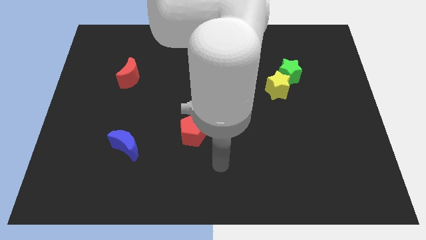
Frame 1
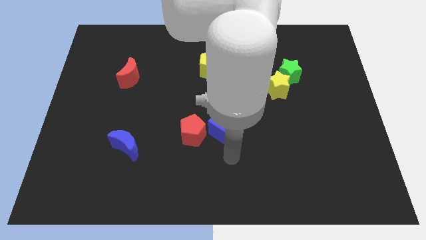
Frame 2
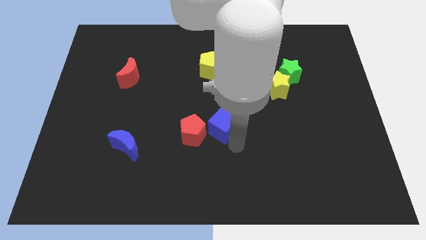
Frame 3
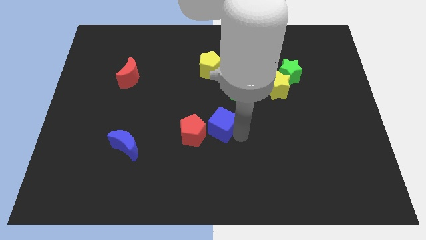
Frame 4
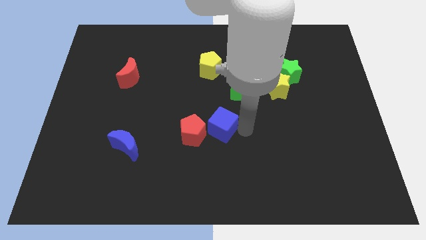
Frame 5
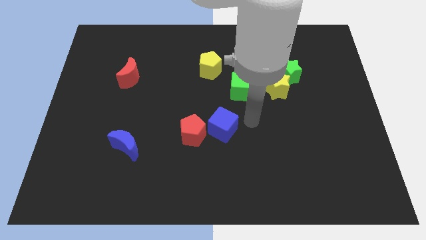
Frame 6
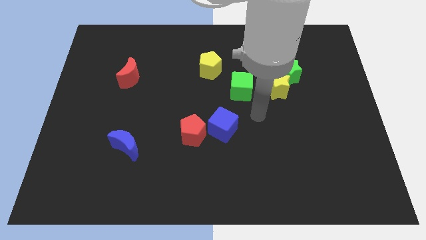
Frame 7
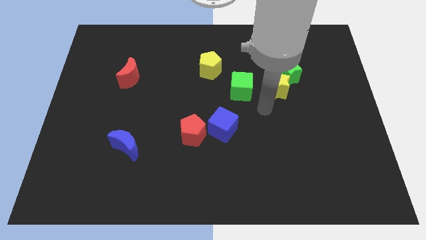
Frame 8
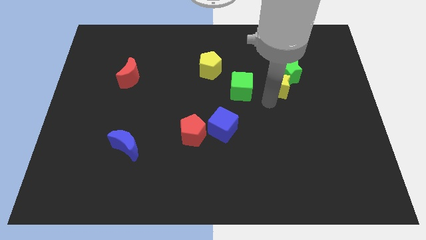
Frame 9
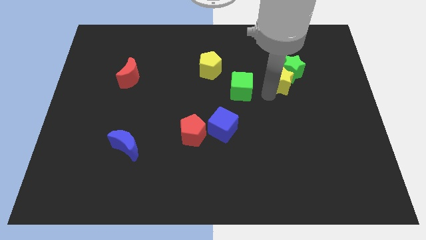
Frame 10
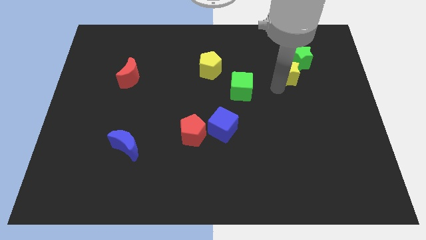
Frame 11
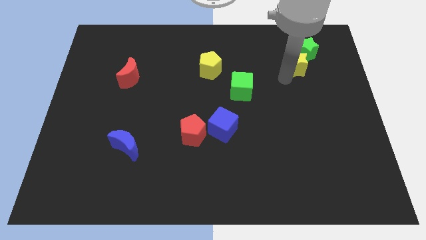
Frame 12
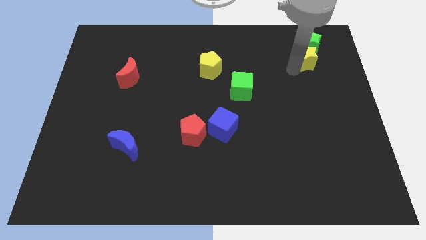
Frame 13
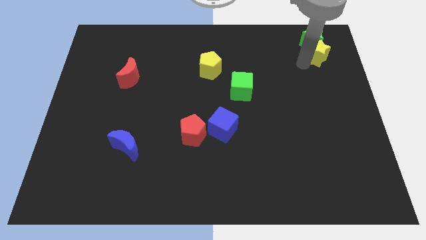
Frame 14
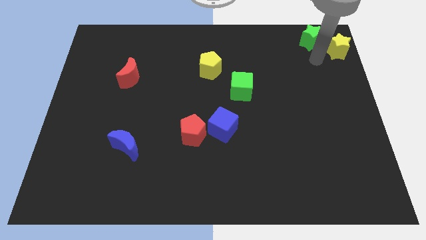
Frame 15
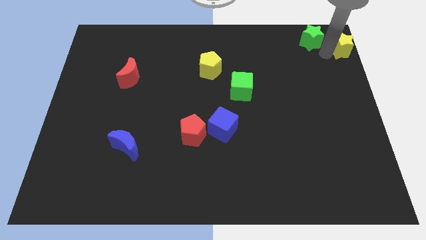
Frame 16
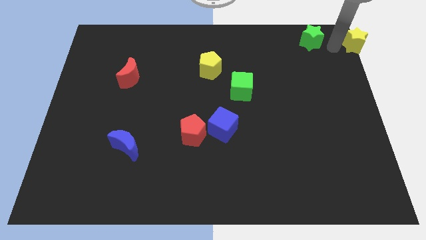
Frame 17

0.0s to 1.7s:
move the green star away from the yellow star

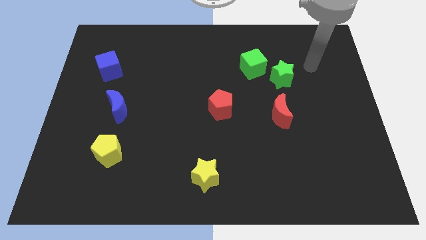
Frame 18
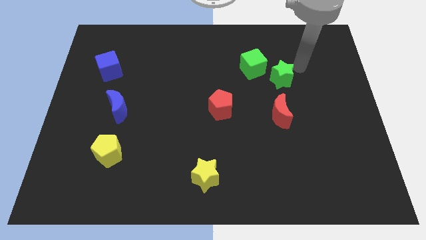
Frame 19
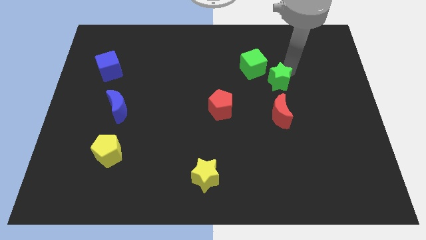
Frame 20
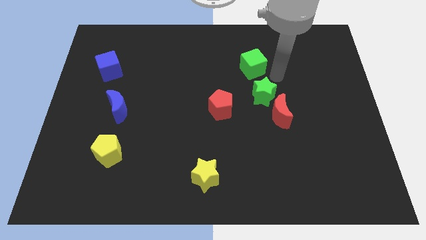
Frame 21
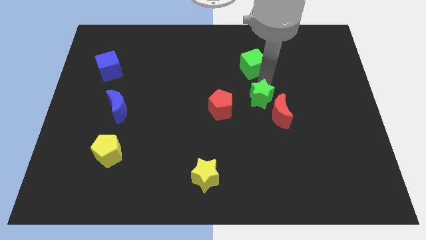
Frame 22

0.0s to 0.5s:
move the green cube away from the green star

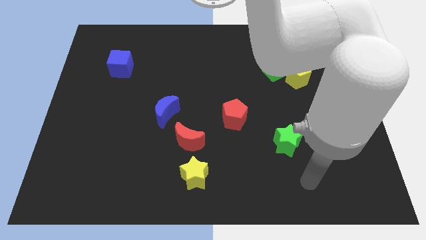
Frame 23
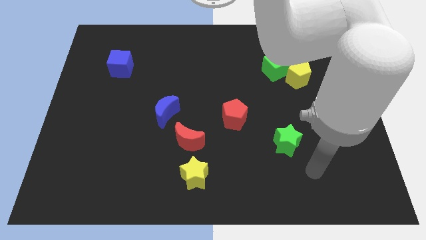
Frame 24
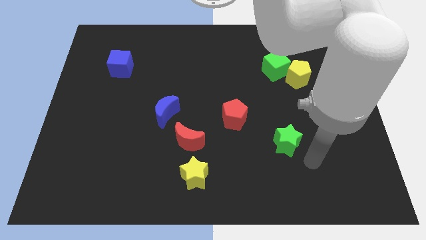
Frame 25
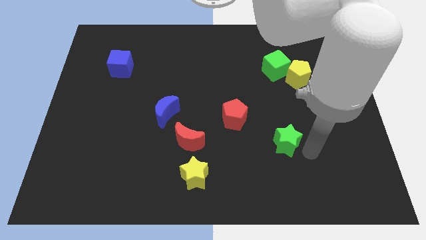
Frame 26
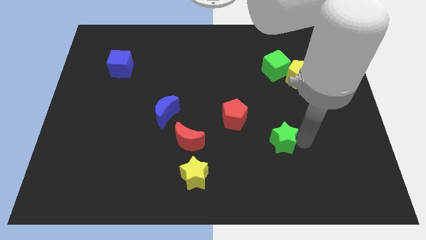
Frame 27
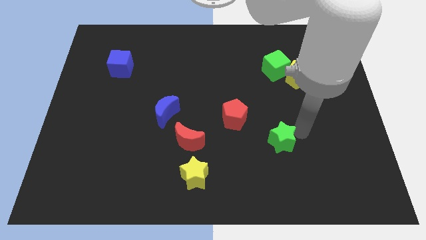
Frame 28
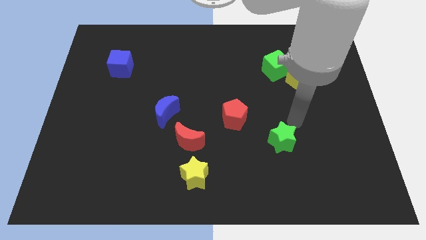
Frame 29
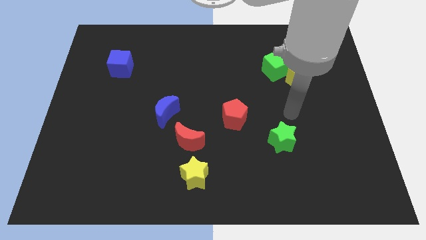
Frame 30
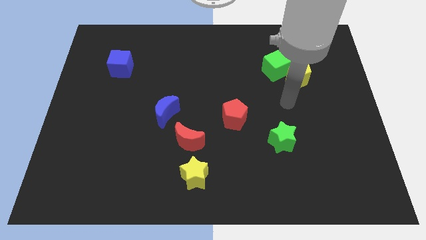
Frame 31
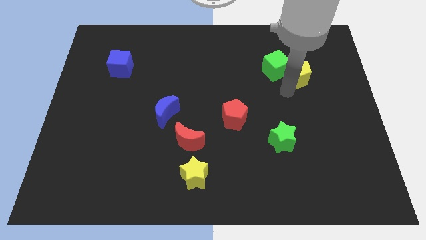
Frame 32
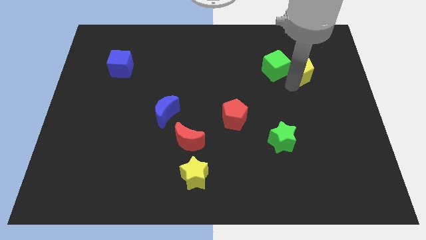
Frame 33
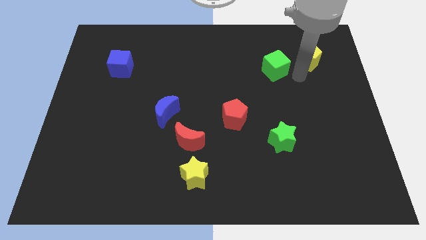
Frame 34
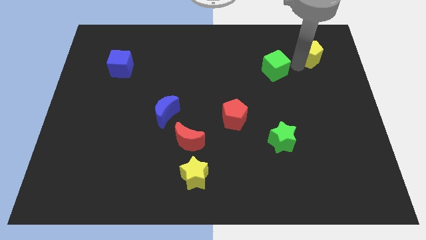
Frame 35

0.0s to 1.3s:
separate the green cube from the yellow pentagon

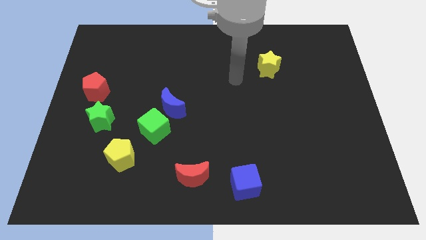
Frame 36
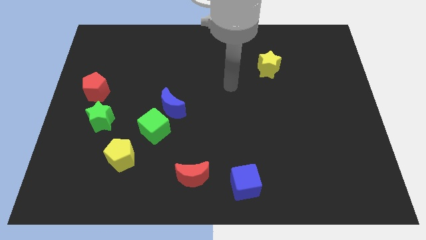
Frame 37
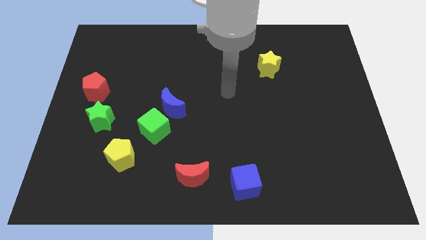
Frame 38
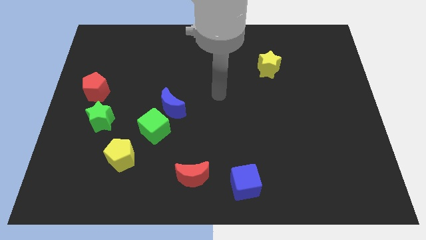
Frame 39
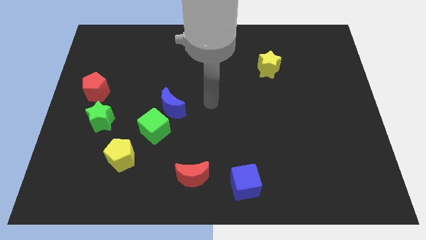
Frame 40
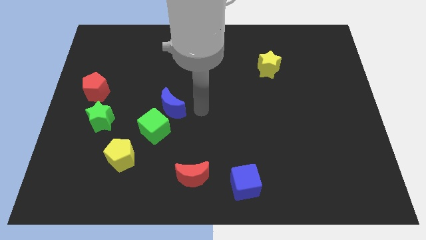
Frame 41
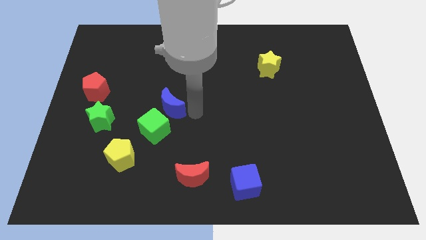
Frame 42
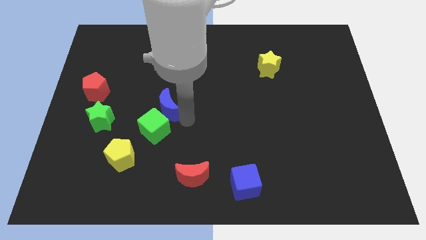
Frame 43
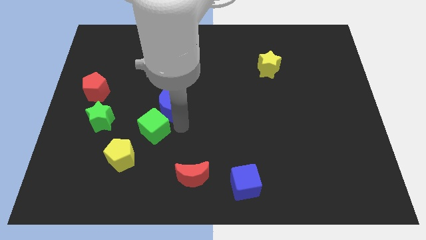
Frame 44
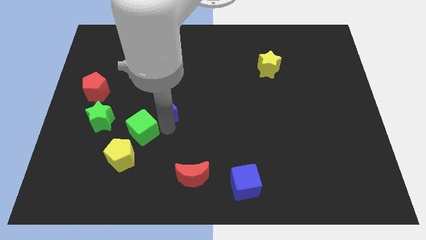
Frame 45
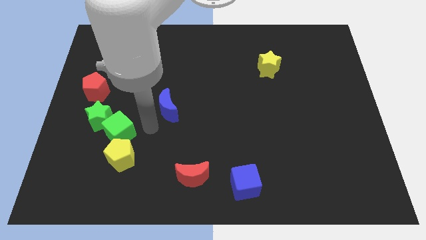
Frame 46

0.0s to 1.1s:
separate the blue moon from the green cube

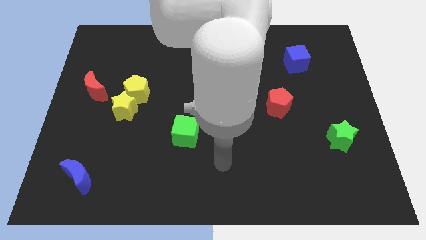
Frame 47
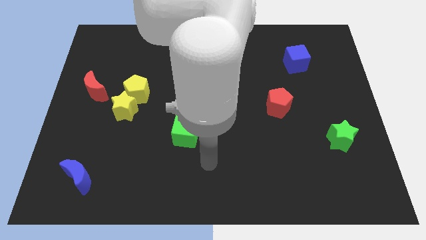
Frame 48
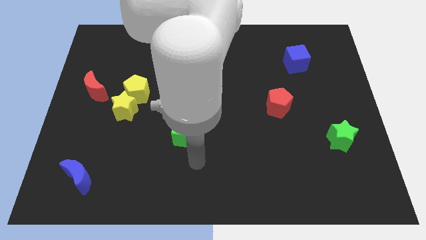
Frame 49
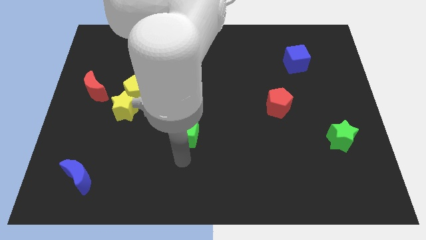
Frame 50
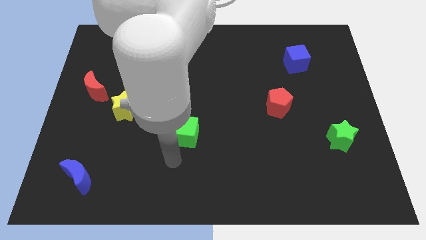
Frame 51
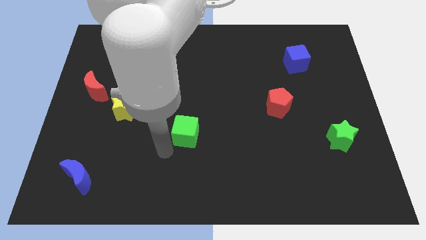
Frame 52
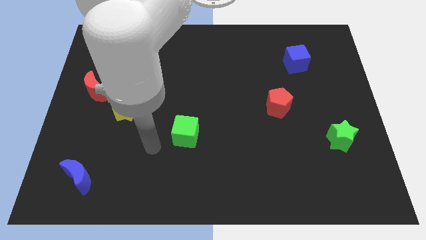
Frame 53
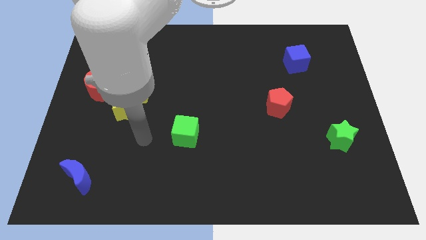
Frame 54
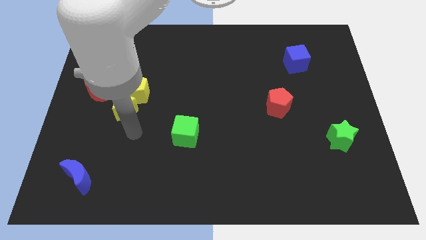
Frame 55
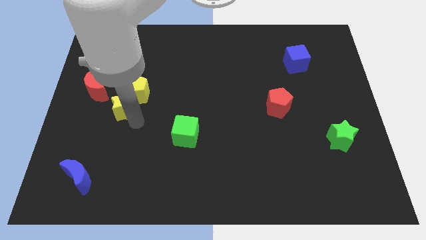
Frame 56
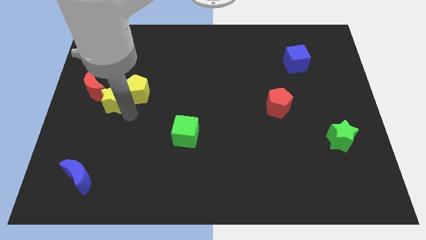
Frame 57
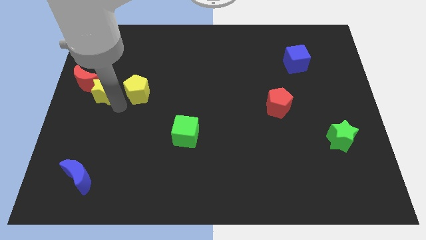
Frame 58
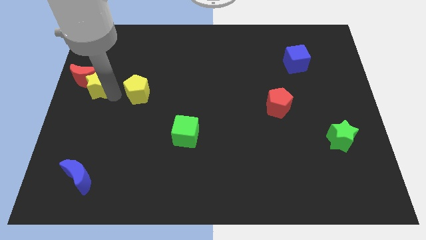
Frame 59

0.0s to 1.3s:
pull the yellow pentagon apart from the yellow star

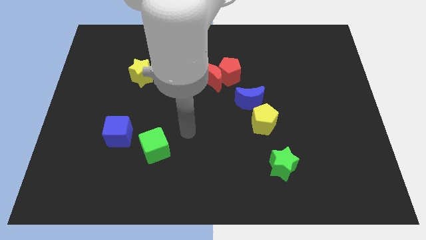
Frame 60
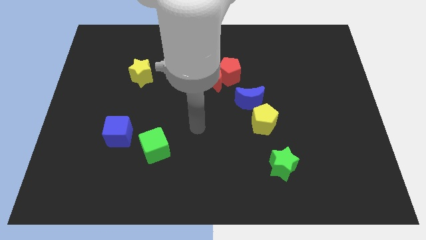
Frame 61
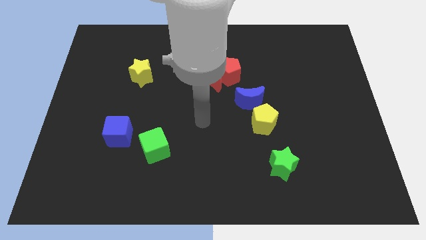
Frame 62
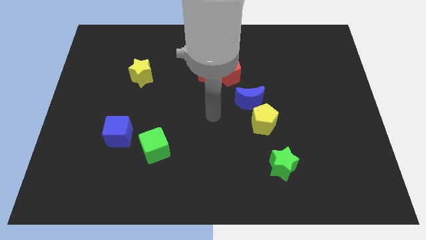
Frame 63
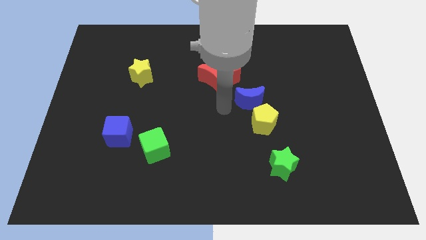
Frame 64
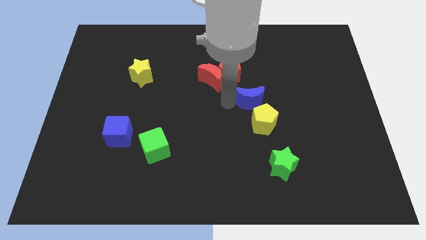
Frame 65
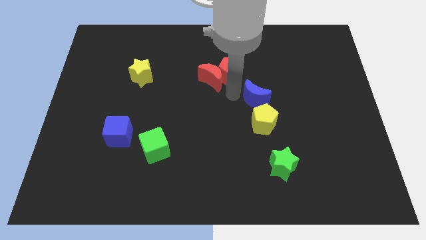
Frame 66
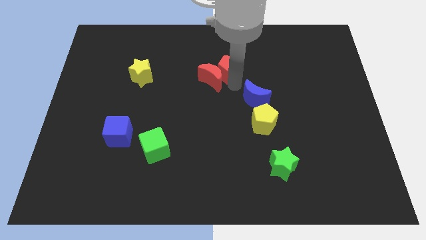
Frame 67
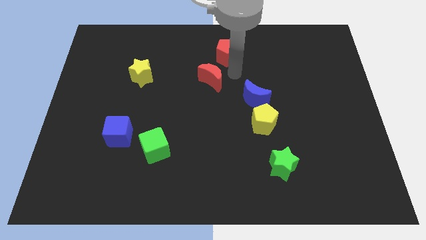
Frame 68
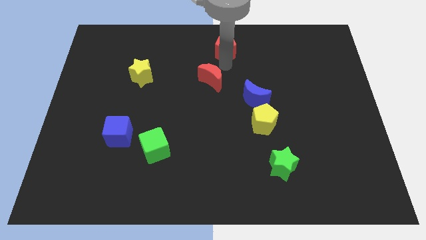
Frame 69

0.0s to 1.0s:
separate the red moon from the red pentagon

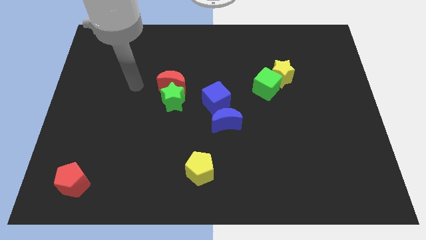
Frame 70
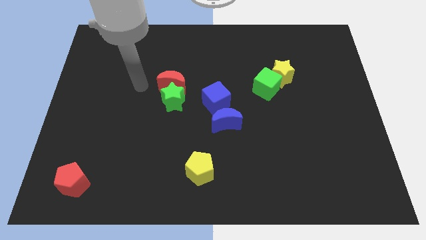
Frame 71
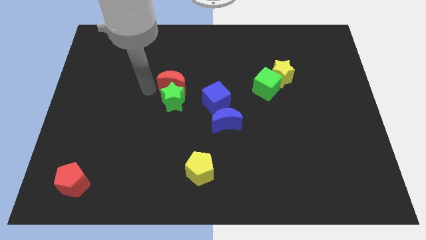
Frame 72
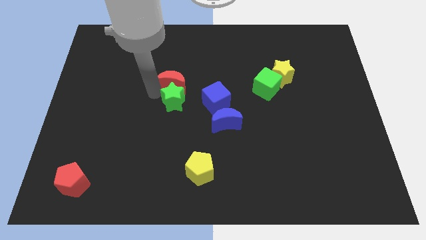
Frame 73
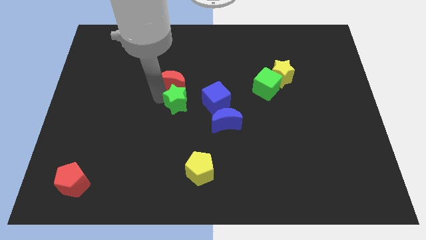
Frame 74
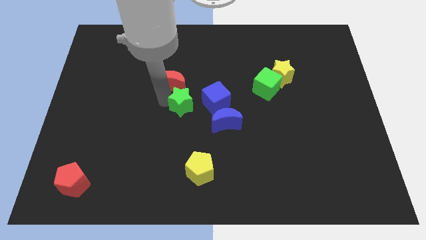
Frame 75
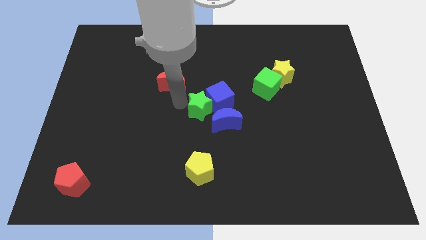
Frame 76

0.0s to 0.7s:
separate the red moon from the green star

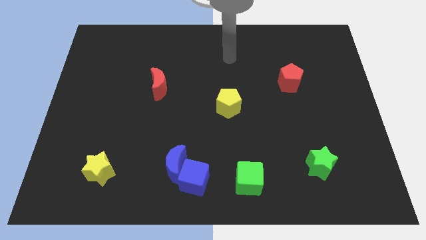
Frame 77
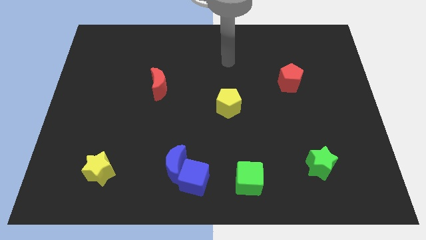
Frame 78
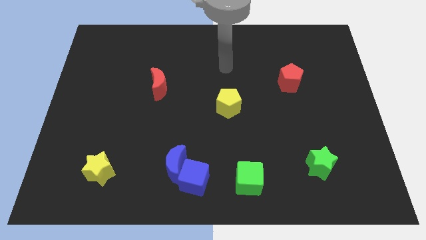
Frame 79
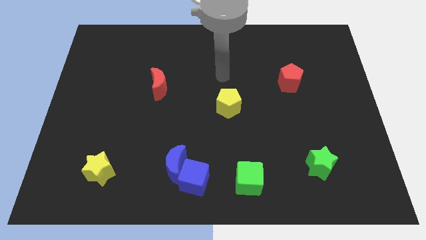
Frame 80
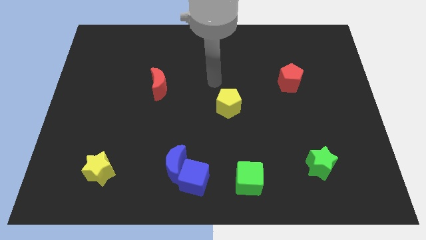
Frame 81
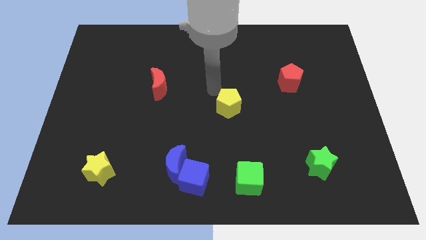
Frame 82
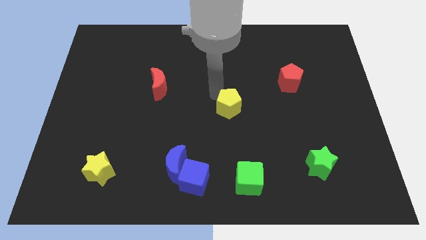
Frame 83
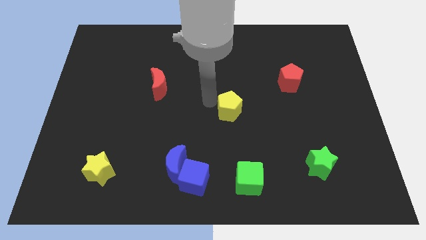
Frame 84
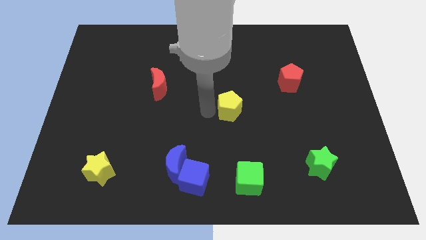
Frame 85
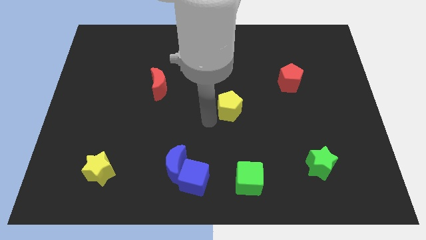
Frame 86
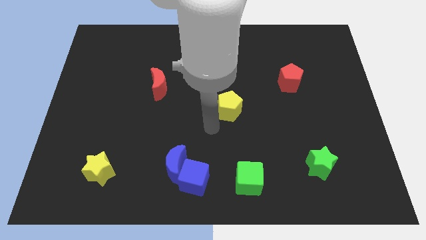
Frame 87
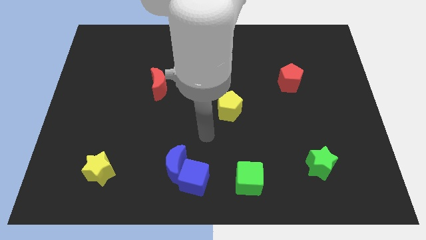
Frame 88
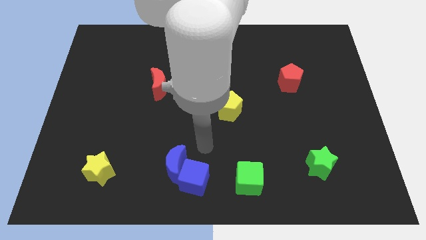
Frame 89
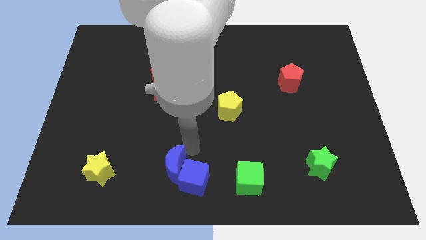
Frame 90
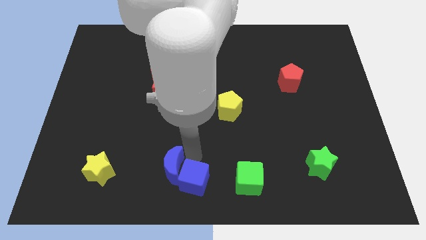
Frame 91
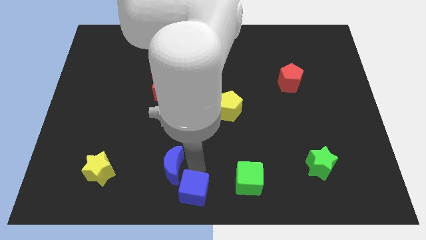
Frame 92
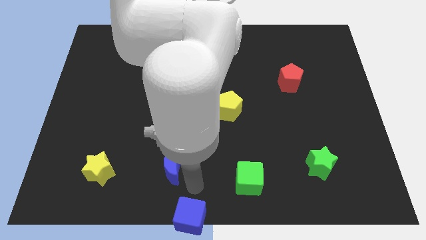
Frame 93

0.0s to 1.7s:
move the blue moon away from the blue cube

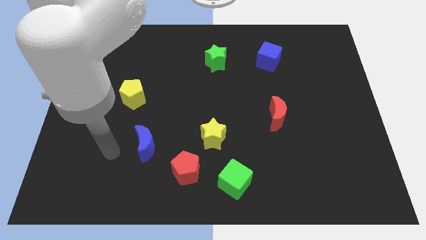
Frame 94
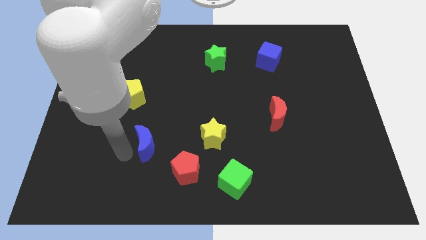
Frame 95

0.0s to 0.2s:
pull the yellow star apart from the red pentagon
